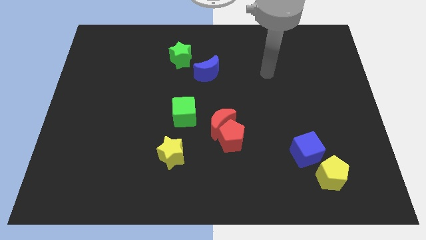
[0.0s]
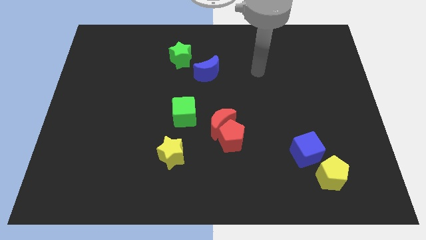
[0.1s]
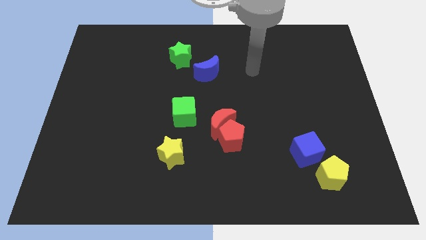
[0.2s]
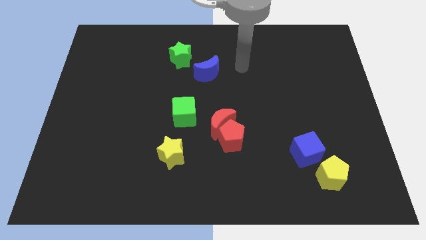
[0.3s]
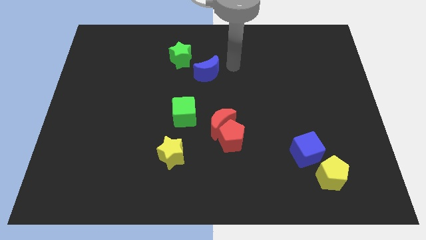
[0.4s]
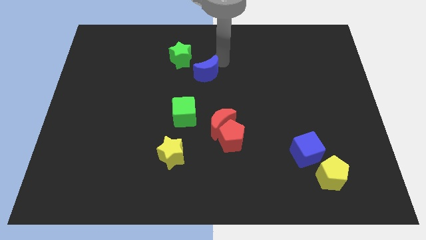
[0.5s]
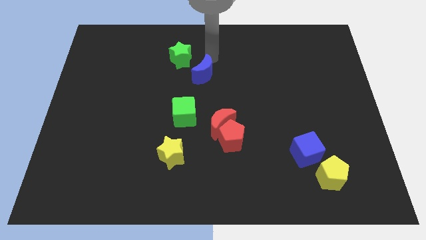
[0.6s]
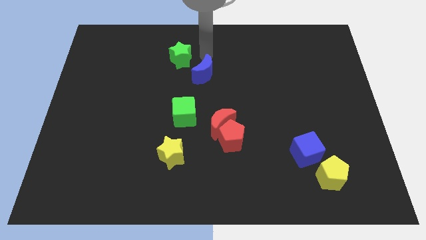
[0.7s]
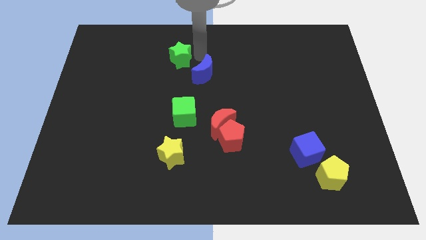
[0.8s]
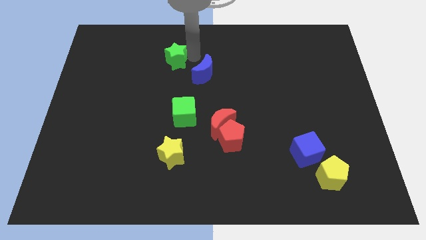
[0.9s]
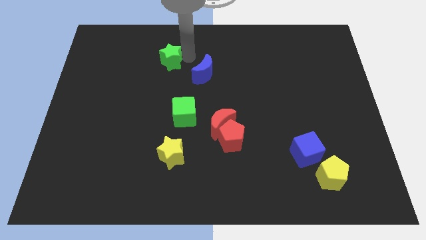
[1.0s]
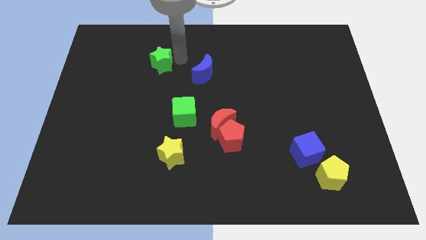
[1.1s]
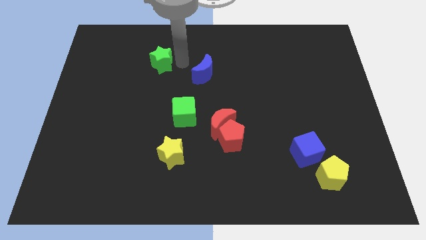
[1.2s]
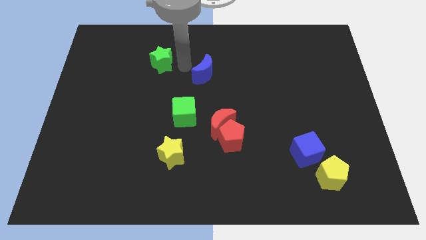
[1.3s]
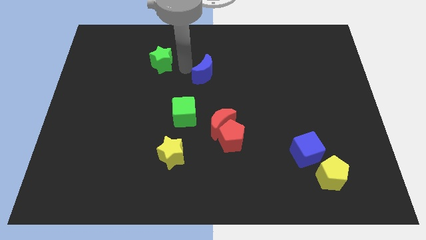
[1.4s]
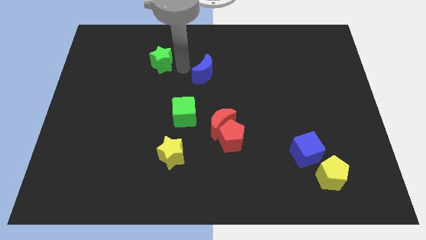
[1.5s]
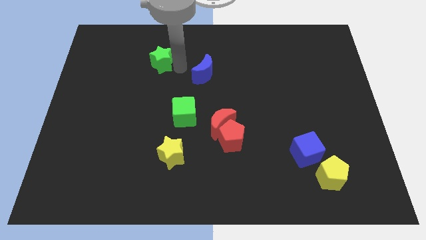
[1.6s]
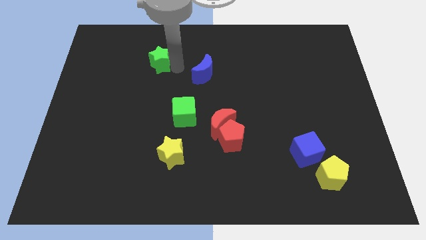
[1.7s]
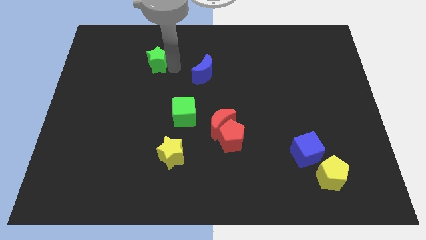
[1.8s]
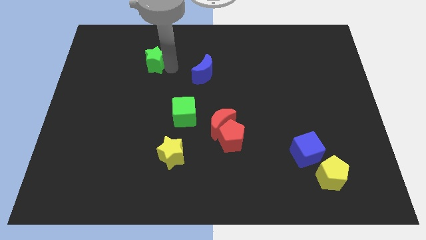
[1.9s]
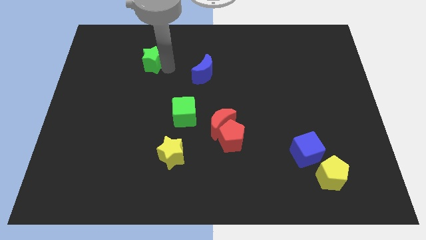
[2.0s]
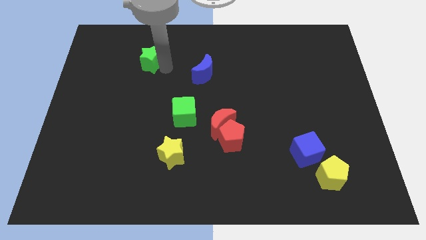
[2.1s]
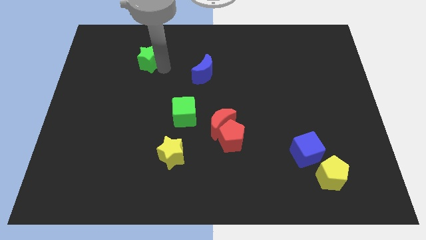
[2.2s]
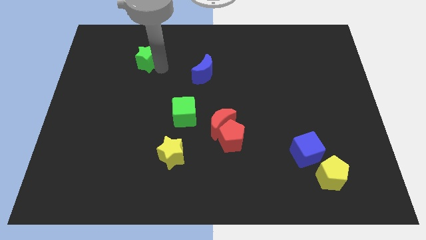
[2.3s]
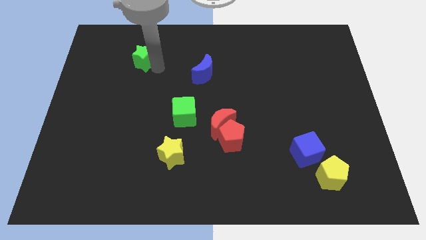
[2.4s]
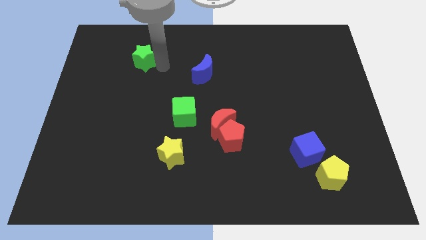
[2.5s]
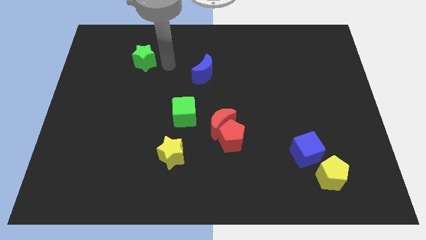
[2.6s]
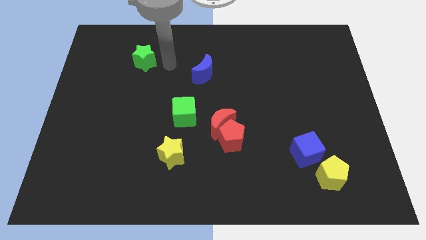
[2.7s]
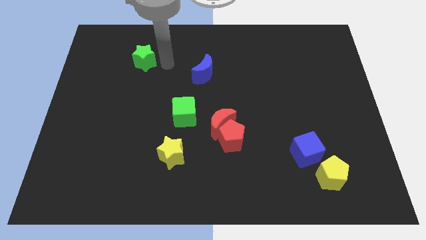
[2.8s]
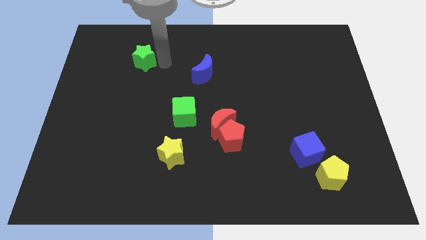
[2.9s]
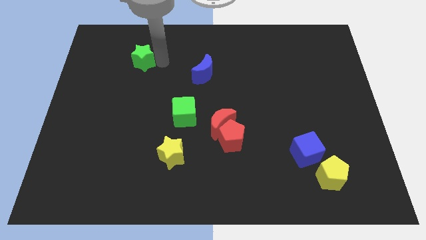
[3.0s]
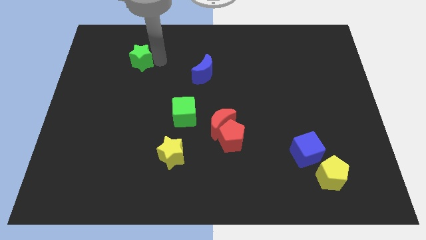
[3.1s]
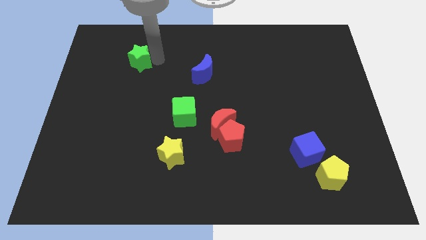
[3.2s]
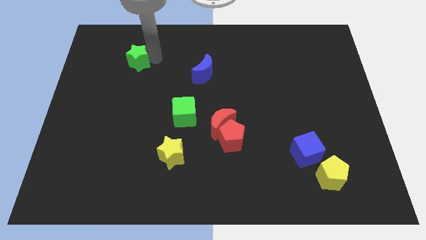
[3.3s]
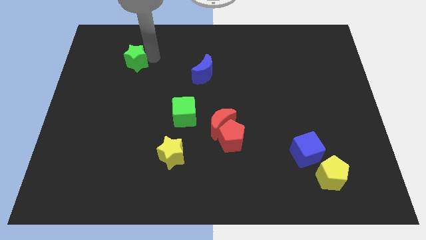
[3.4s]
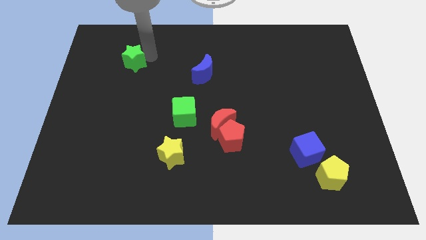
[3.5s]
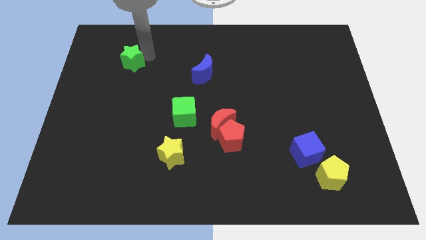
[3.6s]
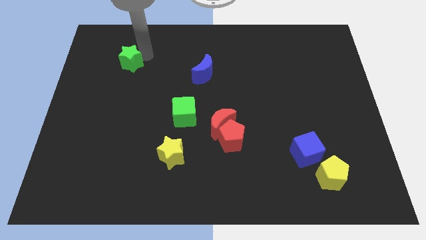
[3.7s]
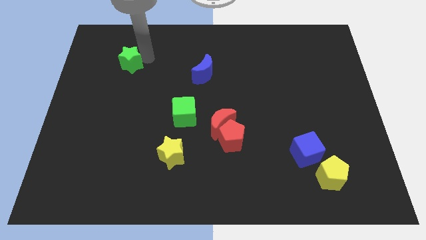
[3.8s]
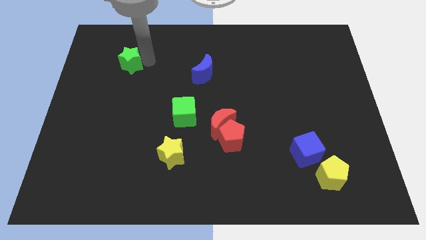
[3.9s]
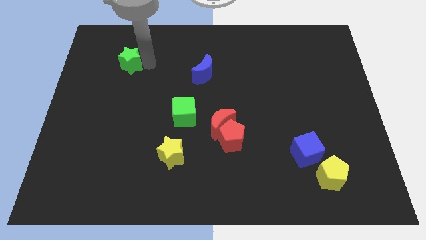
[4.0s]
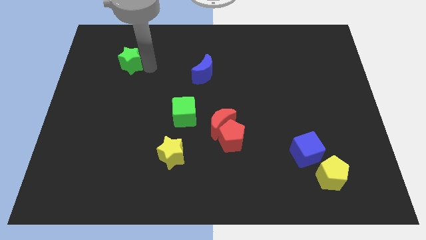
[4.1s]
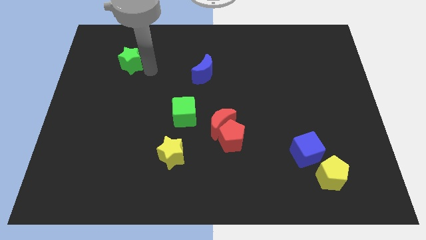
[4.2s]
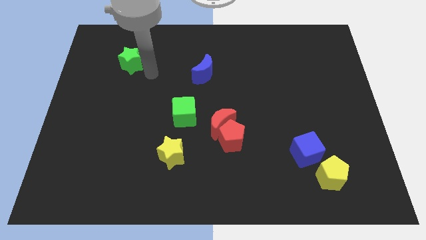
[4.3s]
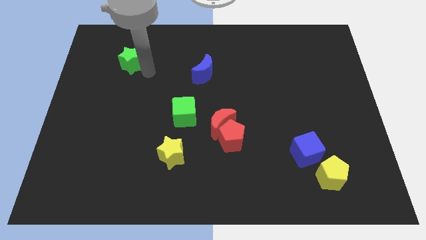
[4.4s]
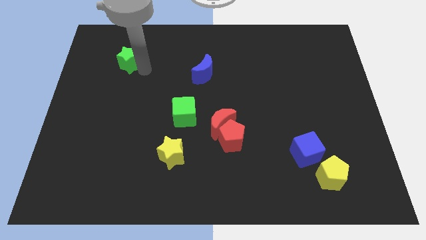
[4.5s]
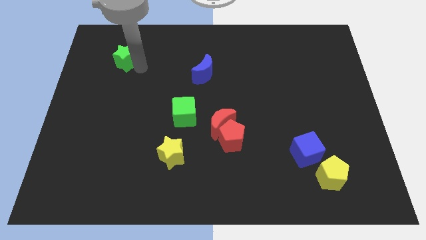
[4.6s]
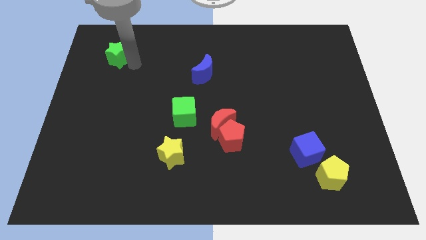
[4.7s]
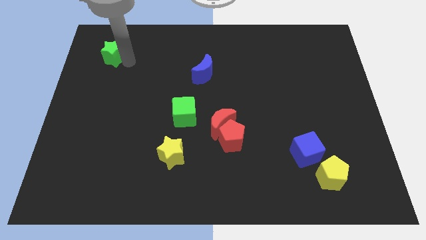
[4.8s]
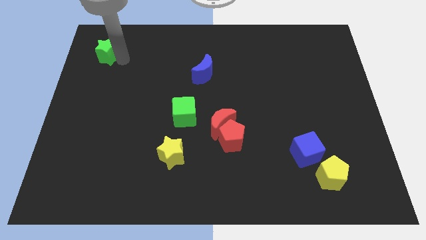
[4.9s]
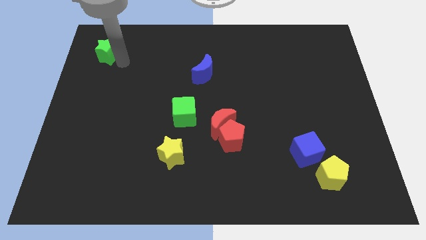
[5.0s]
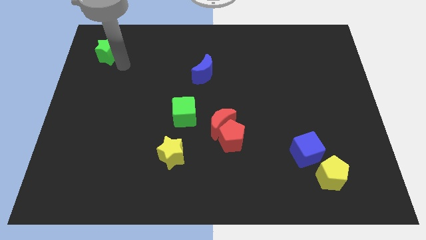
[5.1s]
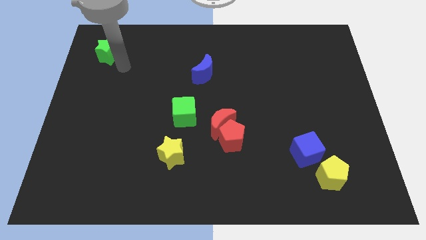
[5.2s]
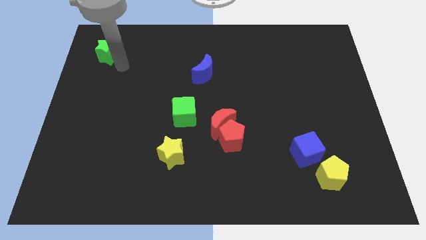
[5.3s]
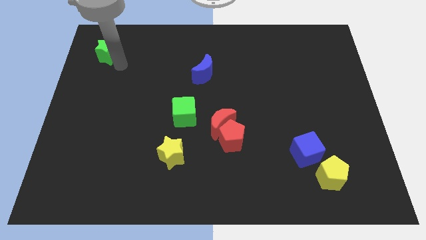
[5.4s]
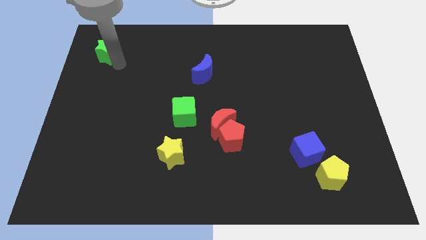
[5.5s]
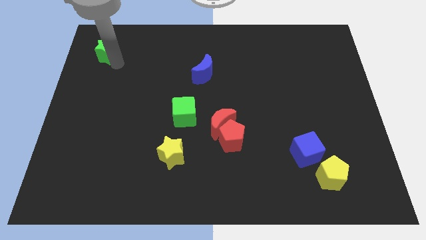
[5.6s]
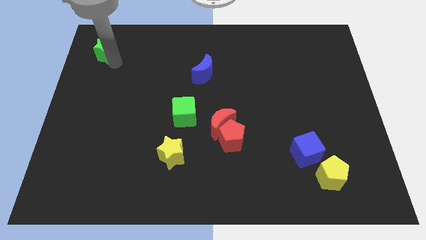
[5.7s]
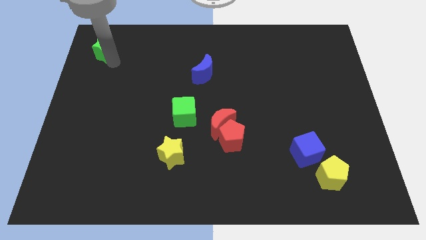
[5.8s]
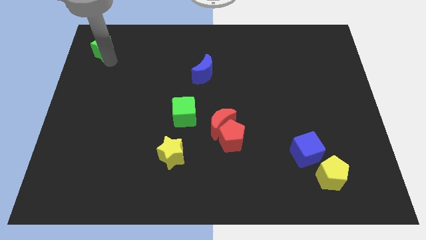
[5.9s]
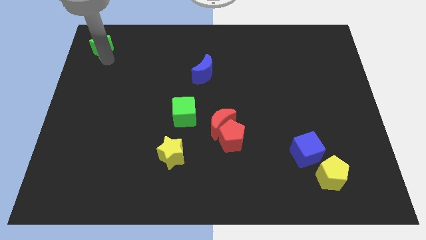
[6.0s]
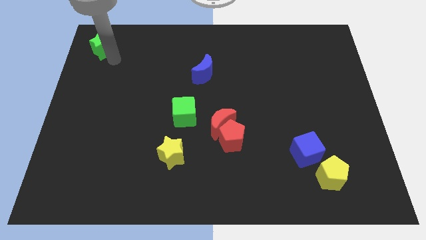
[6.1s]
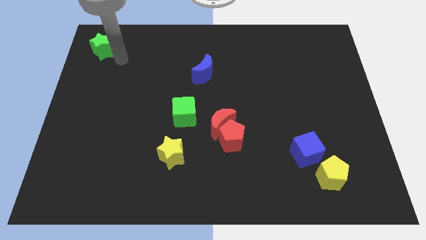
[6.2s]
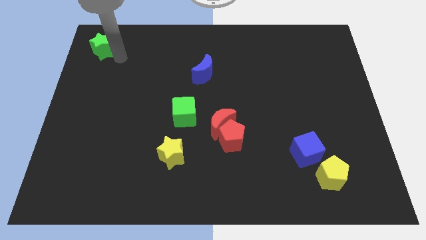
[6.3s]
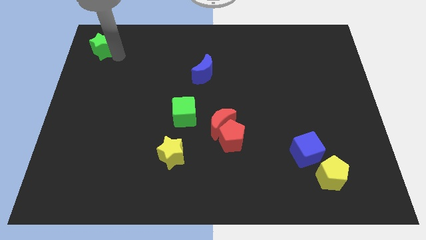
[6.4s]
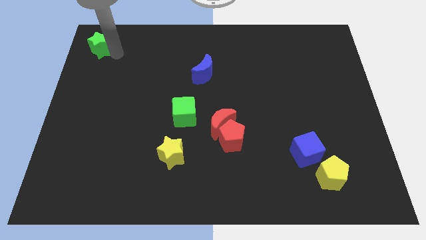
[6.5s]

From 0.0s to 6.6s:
push the green star to the top left
